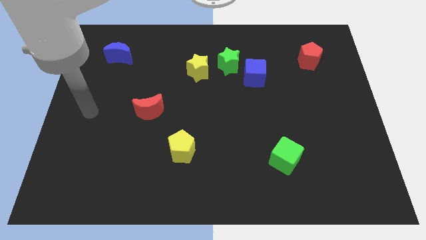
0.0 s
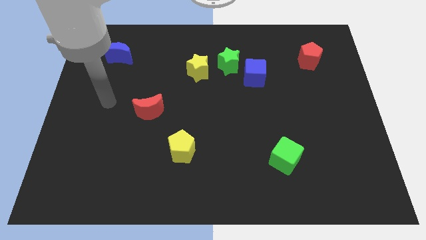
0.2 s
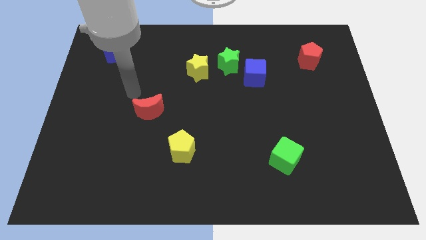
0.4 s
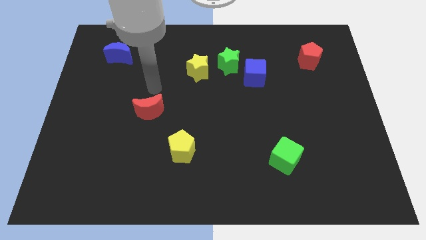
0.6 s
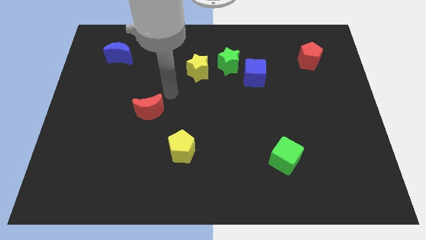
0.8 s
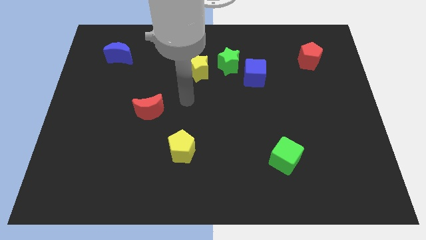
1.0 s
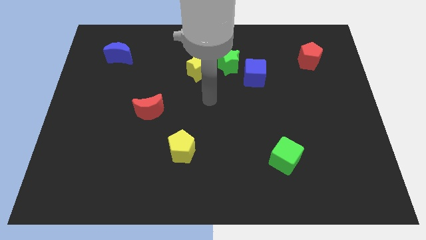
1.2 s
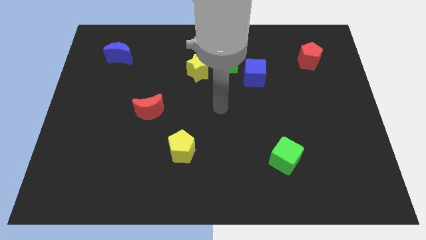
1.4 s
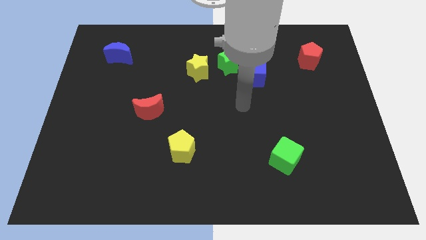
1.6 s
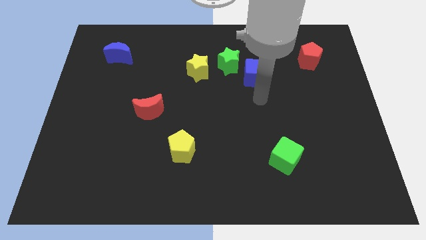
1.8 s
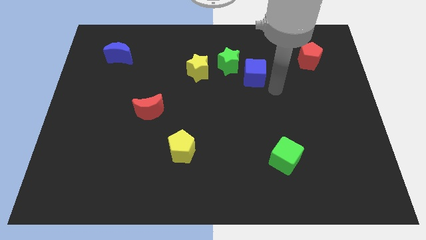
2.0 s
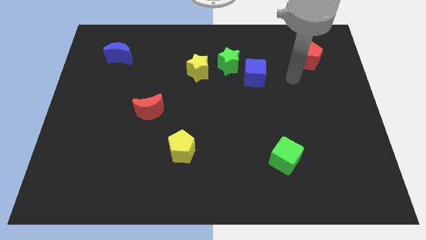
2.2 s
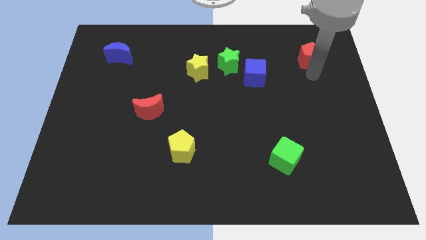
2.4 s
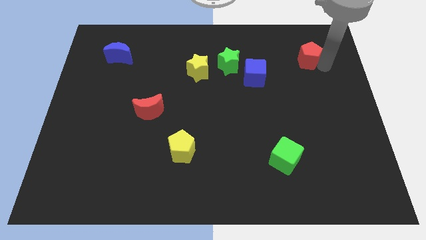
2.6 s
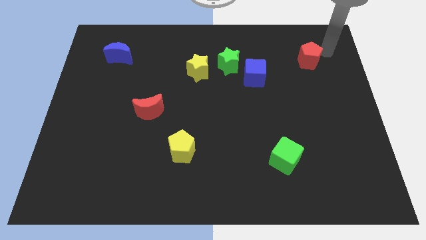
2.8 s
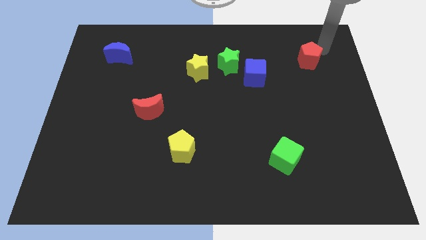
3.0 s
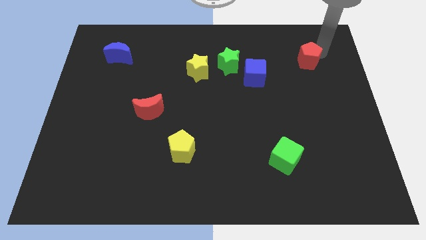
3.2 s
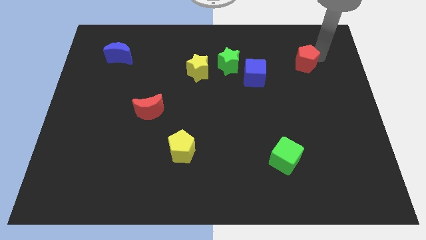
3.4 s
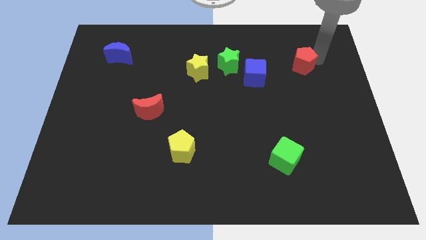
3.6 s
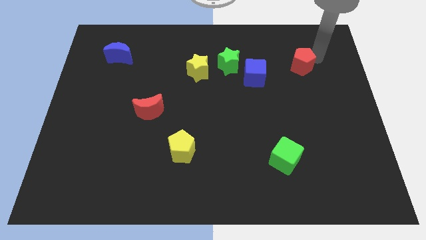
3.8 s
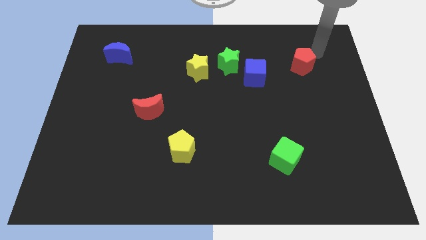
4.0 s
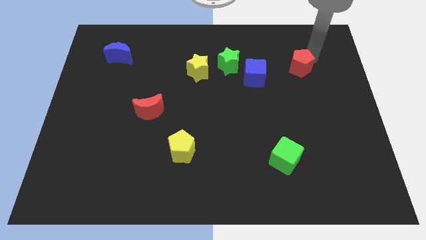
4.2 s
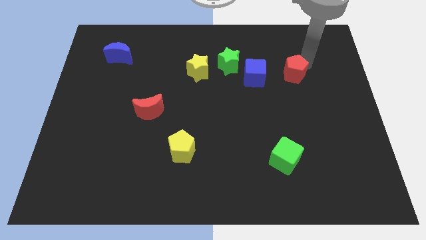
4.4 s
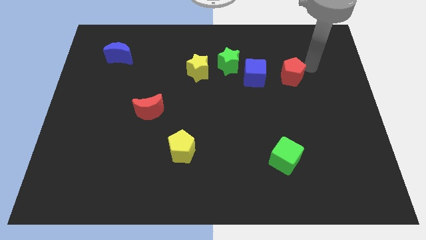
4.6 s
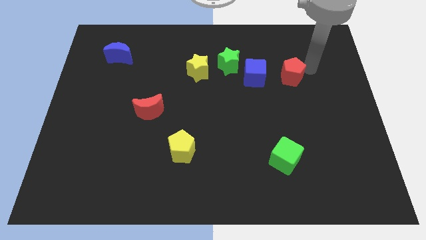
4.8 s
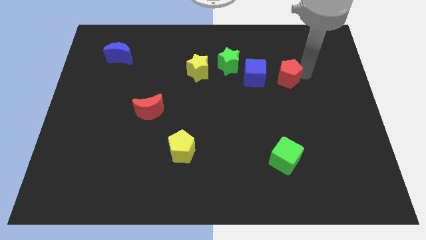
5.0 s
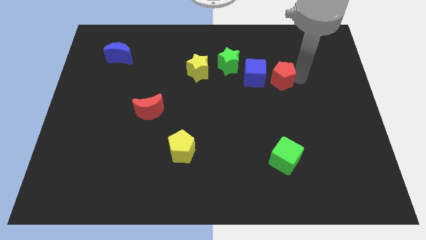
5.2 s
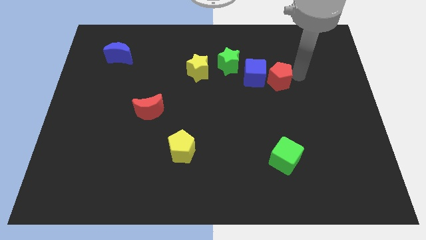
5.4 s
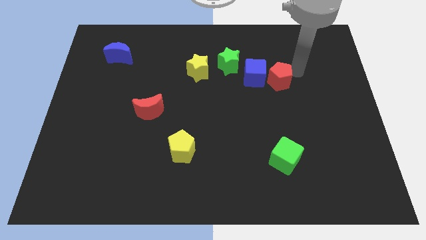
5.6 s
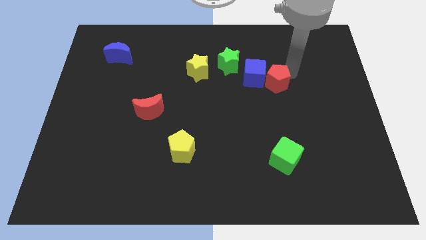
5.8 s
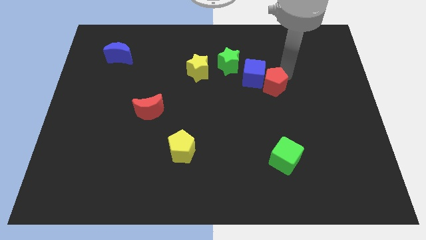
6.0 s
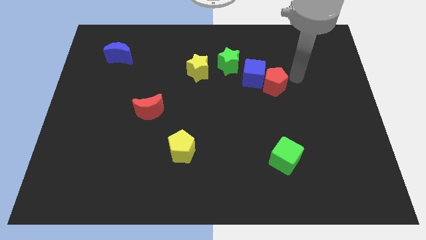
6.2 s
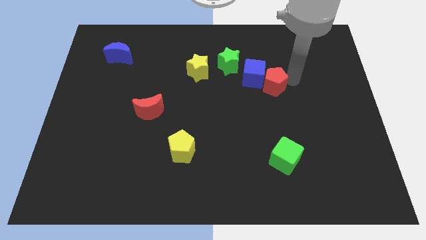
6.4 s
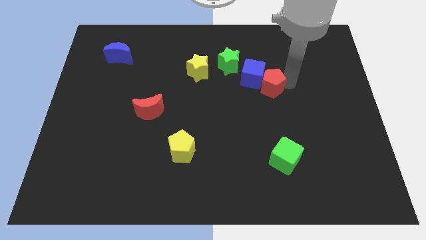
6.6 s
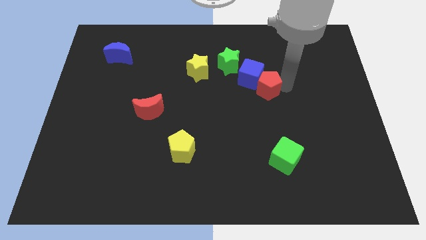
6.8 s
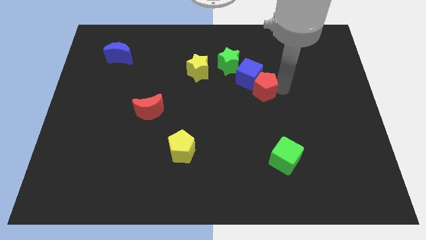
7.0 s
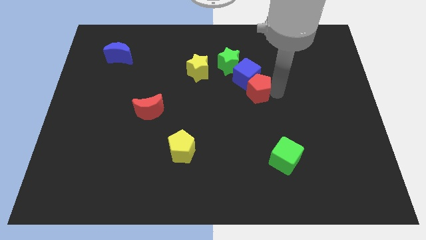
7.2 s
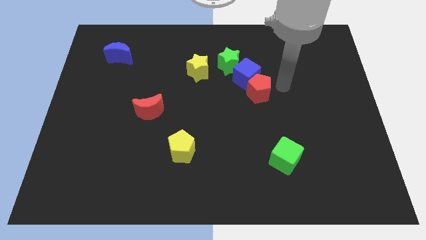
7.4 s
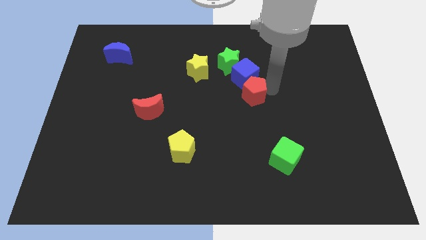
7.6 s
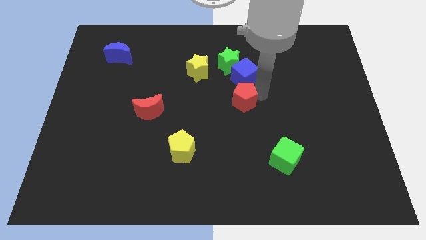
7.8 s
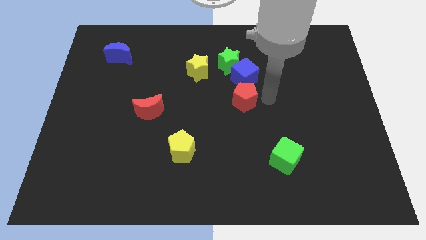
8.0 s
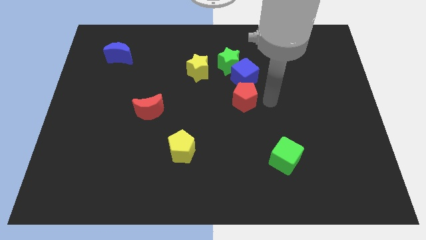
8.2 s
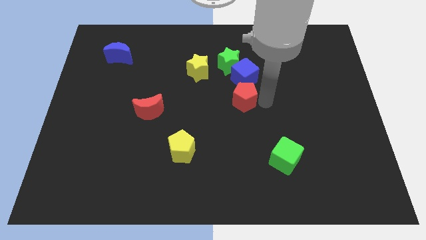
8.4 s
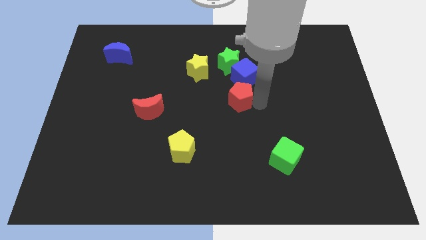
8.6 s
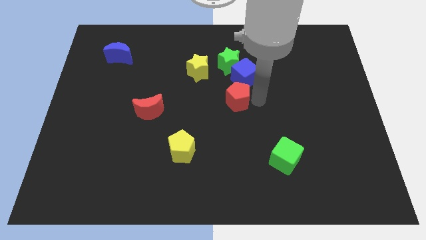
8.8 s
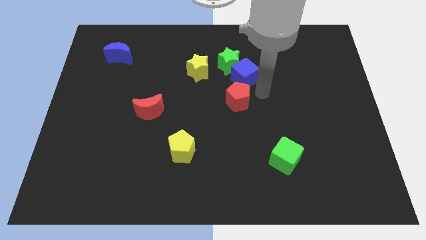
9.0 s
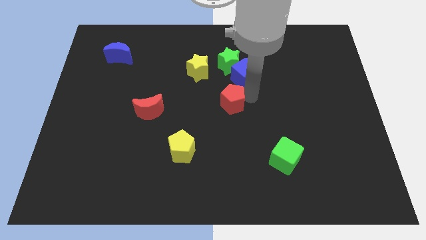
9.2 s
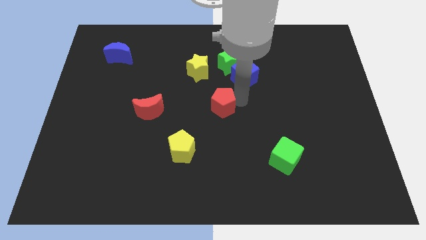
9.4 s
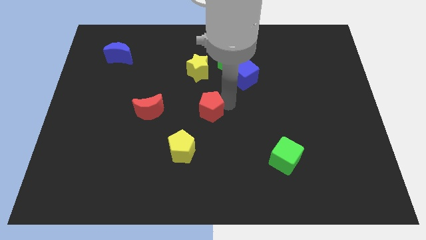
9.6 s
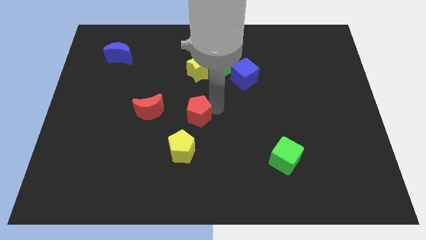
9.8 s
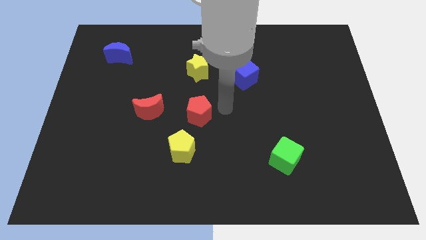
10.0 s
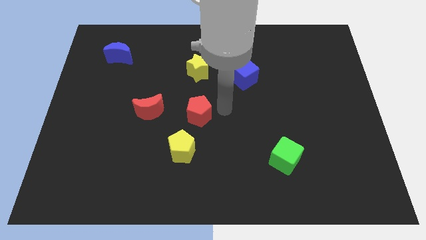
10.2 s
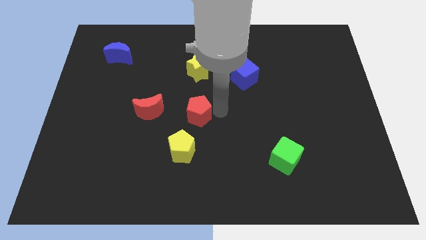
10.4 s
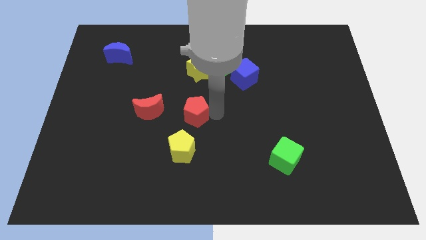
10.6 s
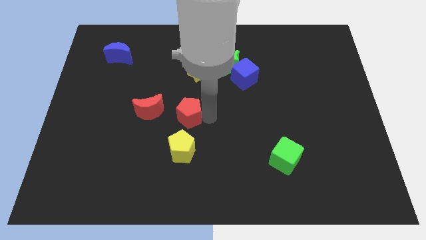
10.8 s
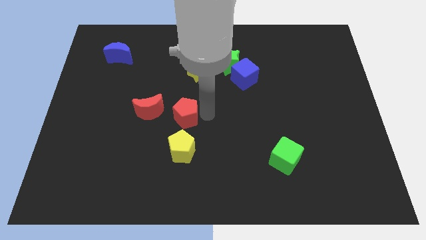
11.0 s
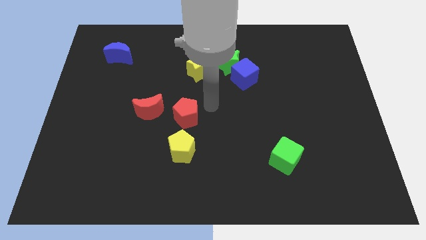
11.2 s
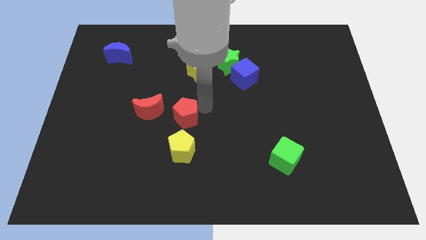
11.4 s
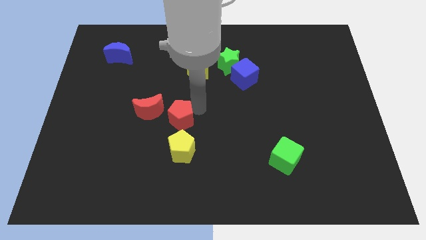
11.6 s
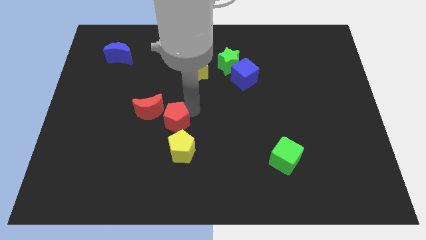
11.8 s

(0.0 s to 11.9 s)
slide the red pentagon to the top left side of the yellow pentagon

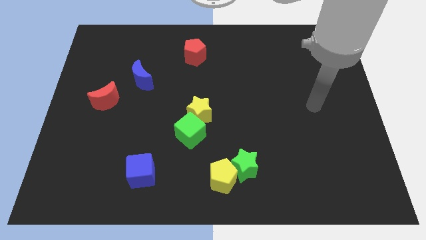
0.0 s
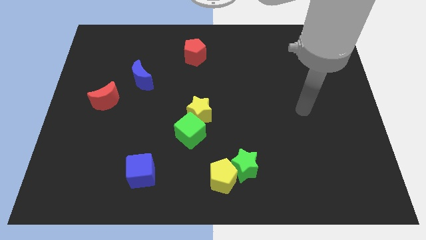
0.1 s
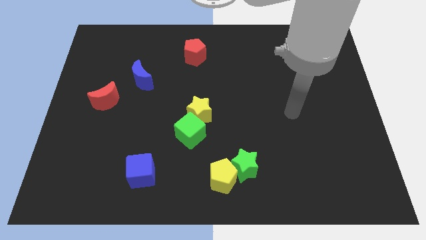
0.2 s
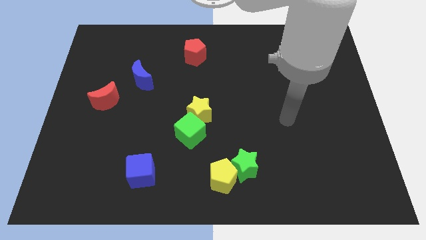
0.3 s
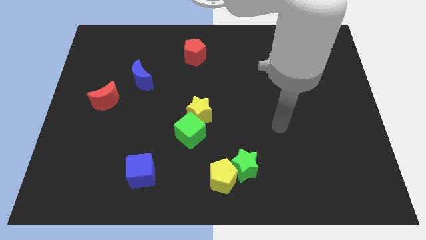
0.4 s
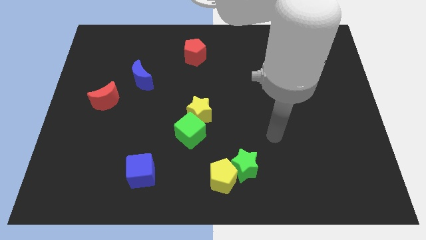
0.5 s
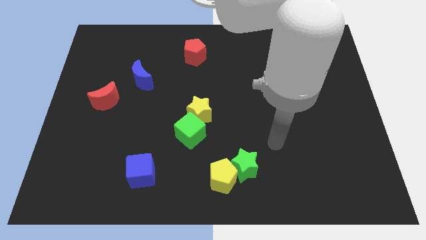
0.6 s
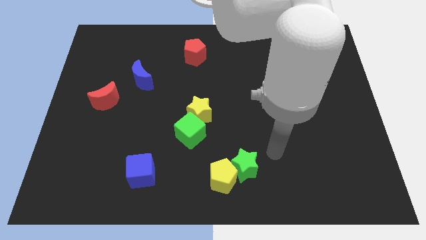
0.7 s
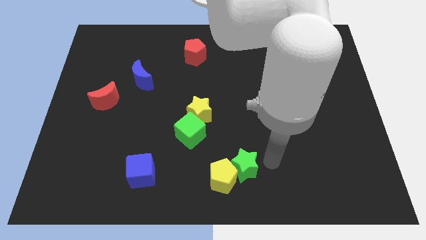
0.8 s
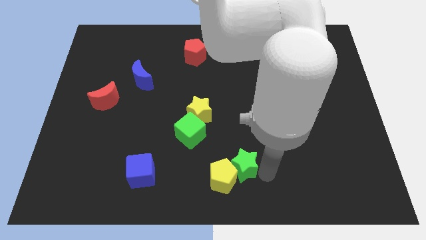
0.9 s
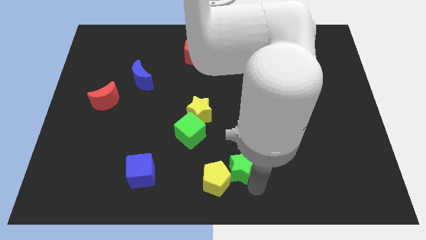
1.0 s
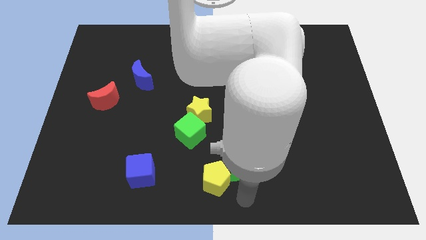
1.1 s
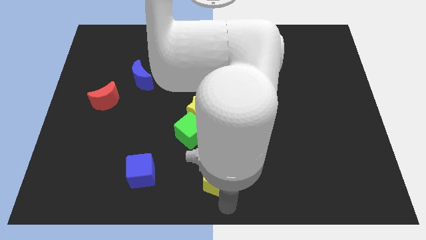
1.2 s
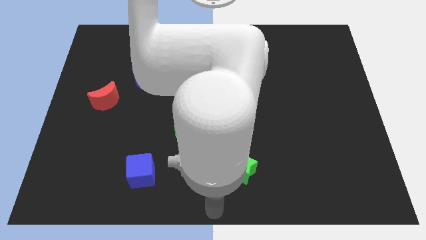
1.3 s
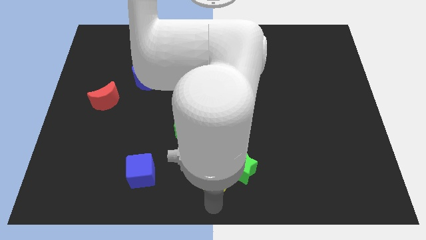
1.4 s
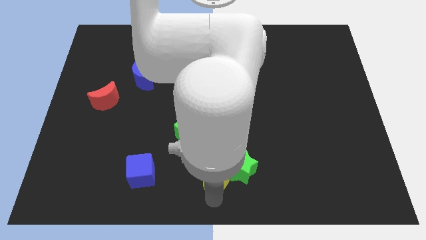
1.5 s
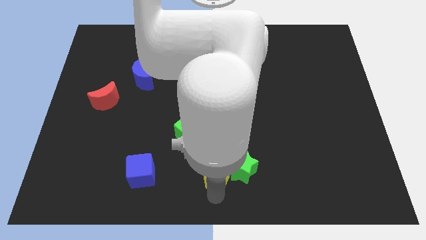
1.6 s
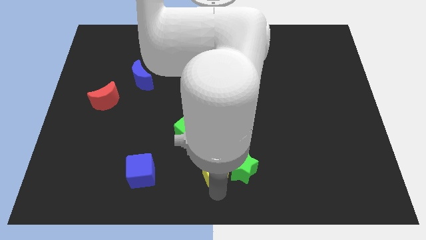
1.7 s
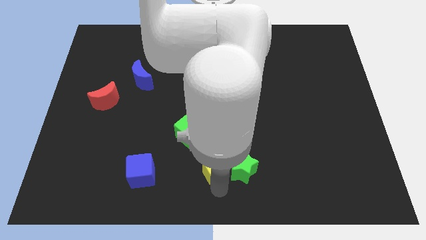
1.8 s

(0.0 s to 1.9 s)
slide the yellow pentagon below the yellow star
